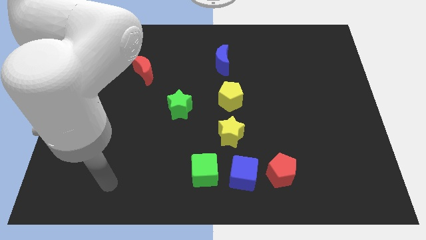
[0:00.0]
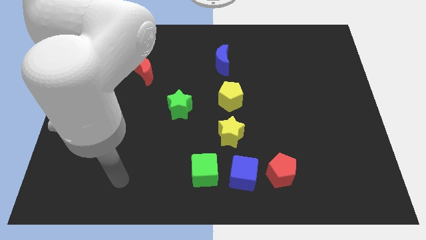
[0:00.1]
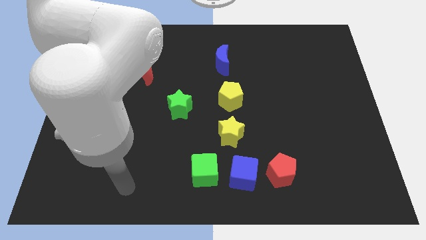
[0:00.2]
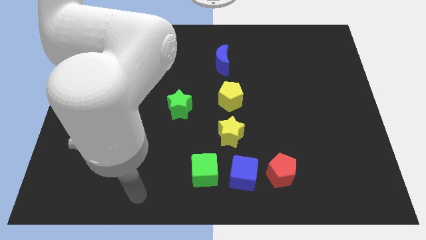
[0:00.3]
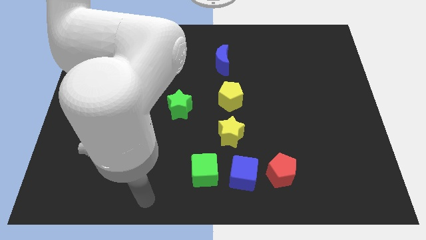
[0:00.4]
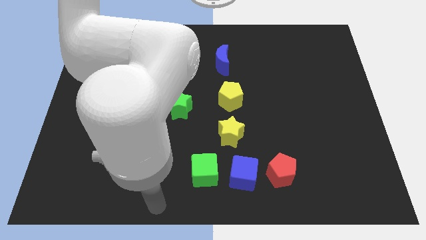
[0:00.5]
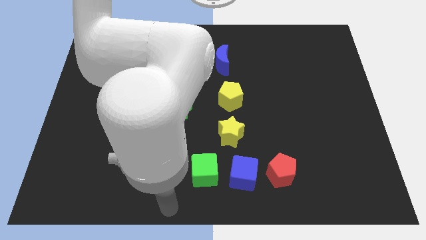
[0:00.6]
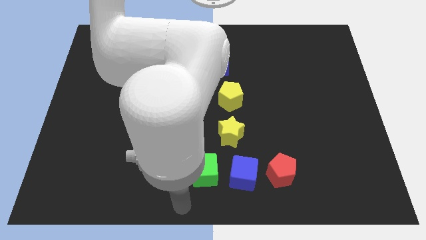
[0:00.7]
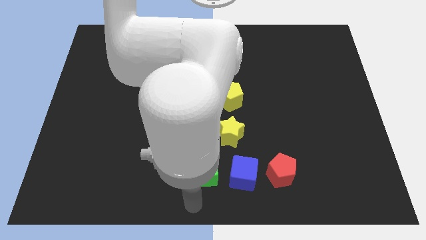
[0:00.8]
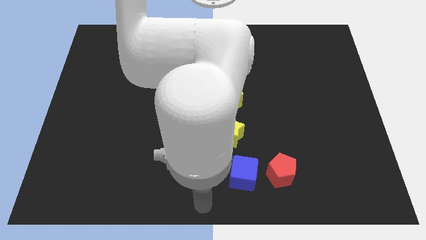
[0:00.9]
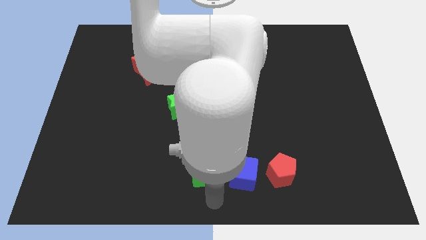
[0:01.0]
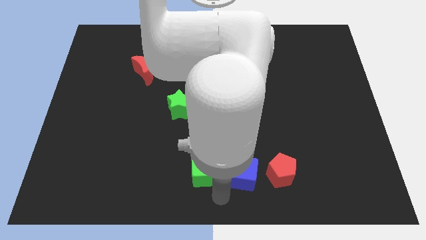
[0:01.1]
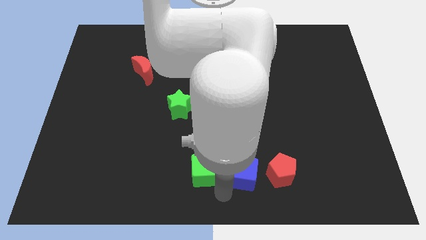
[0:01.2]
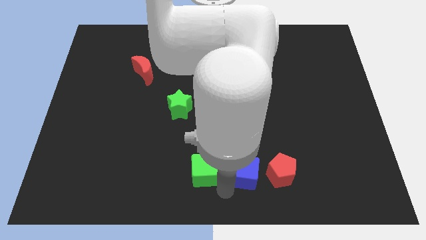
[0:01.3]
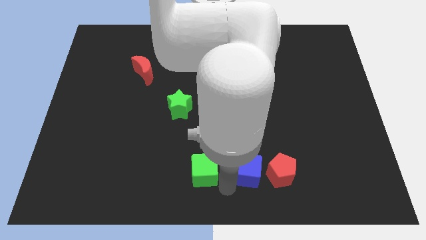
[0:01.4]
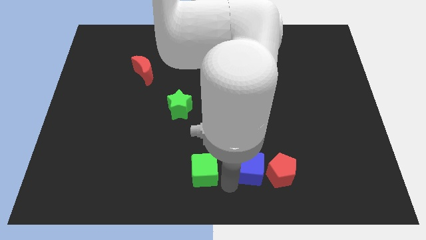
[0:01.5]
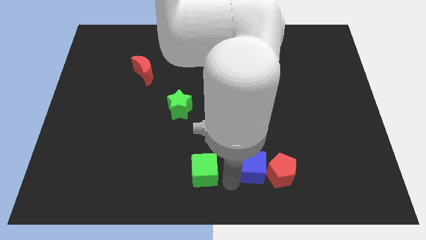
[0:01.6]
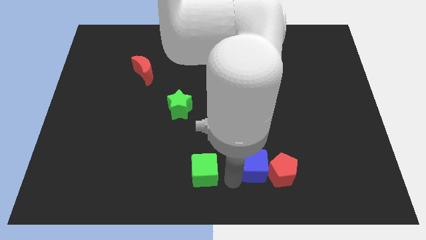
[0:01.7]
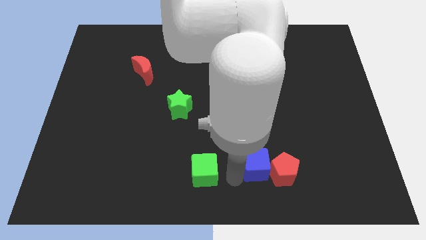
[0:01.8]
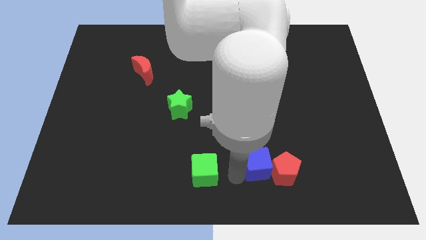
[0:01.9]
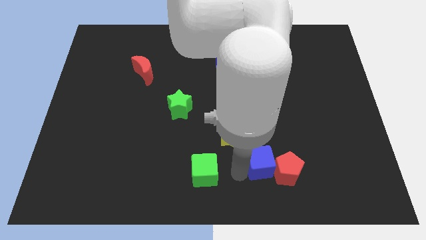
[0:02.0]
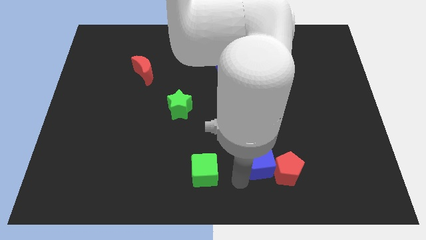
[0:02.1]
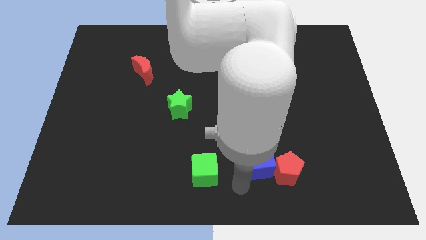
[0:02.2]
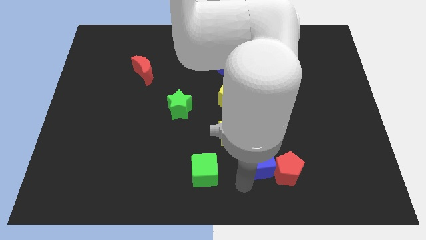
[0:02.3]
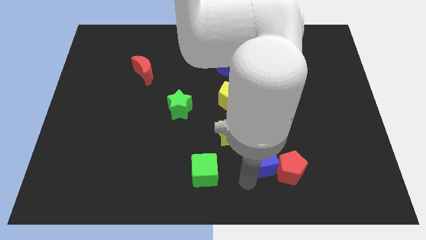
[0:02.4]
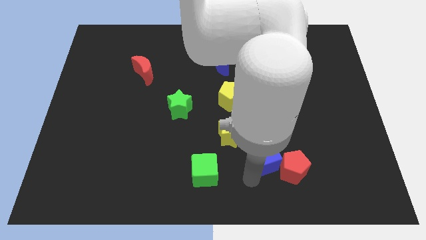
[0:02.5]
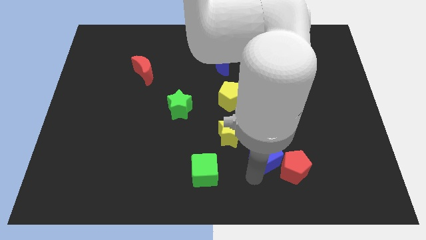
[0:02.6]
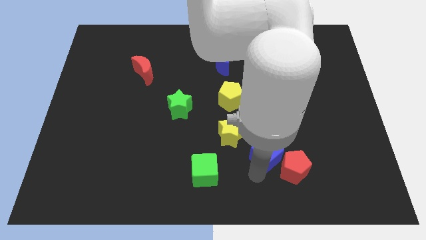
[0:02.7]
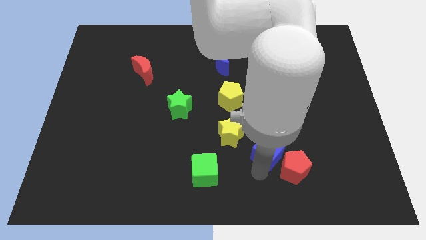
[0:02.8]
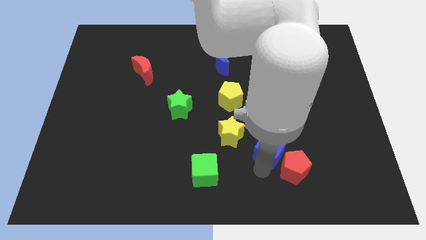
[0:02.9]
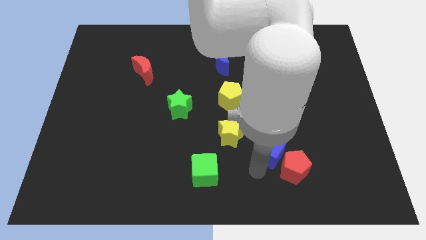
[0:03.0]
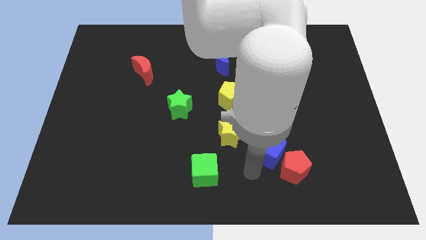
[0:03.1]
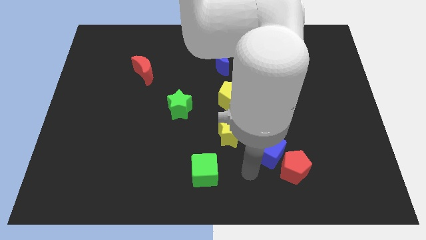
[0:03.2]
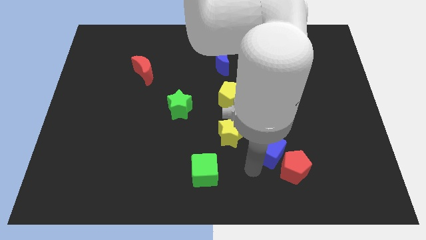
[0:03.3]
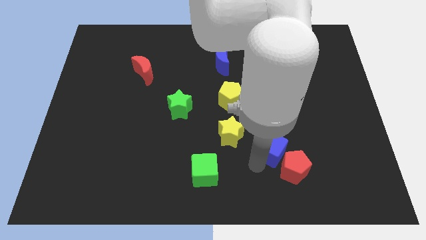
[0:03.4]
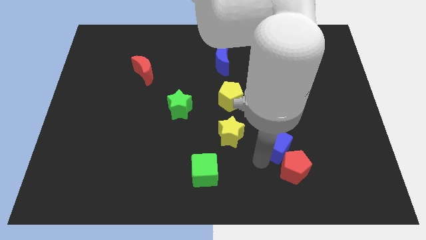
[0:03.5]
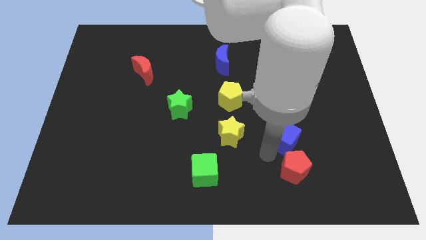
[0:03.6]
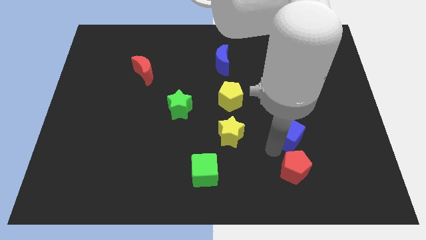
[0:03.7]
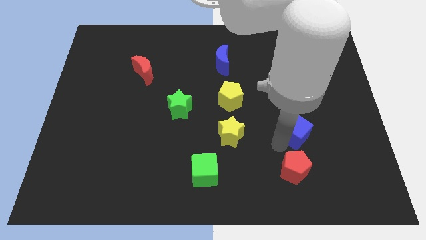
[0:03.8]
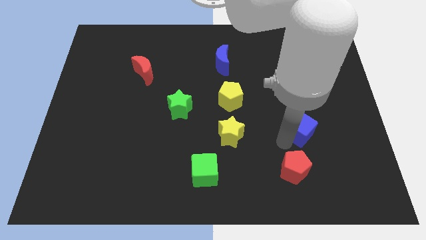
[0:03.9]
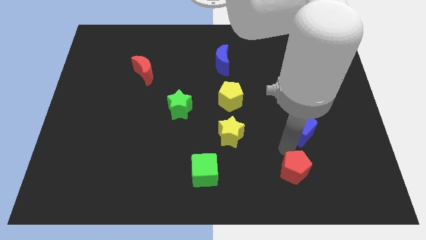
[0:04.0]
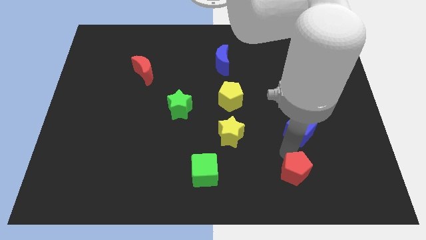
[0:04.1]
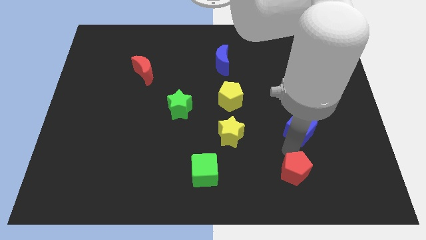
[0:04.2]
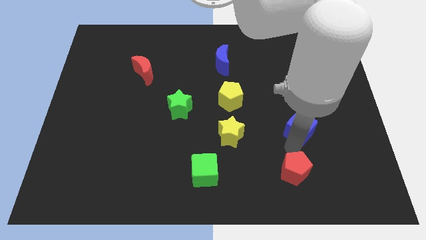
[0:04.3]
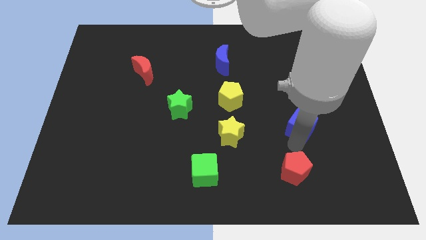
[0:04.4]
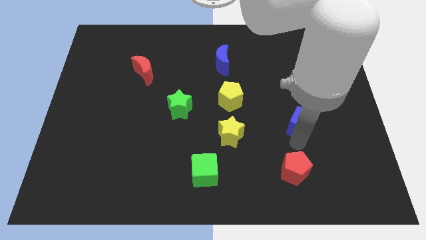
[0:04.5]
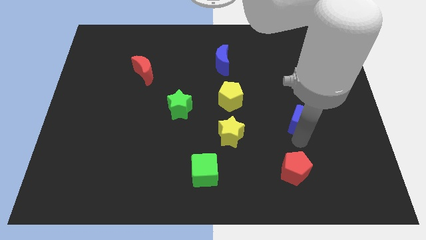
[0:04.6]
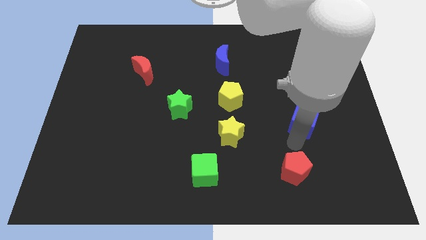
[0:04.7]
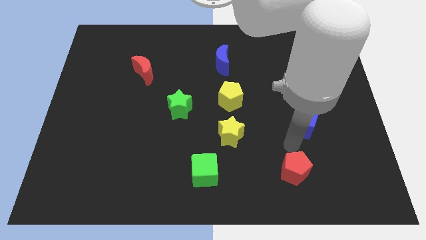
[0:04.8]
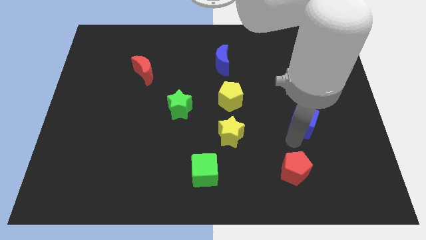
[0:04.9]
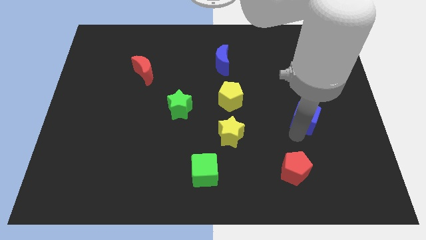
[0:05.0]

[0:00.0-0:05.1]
move the blue cube up and right diagonally

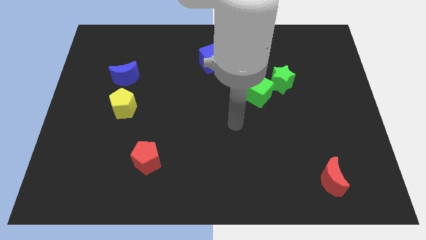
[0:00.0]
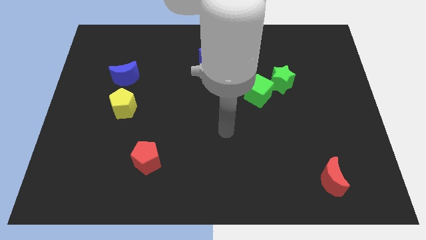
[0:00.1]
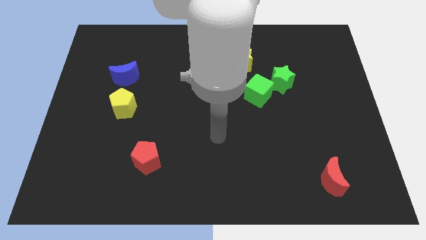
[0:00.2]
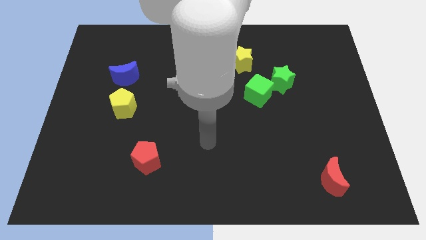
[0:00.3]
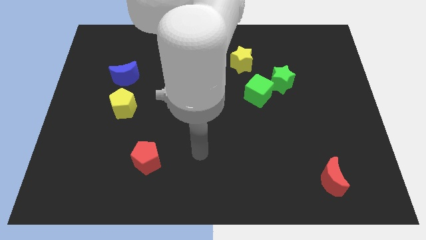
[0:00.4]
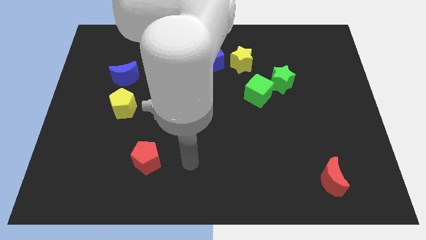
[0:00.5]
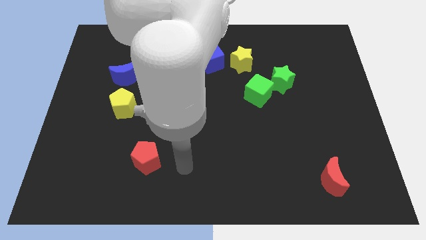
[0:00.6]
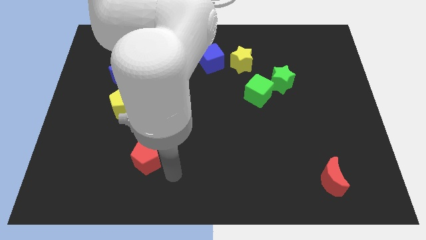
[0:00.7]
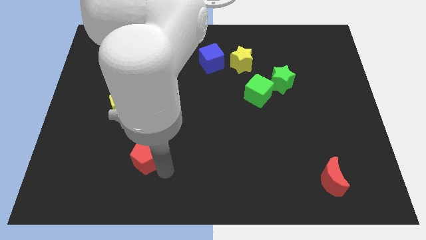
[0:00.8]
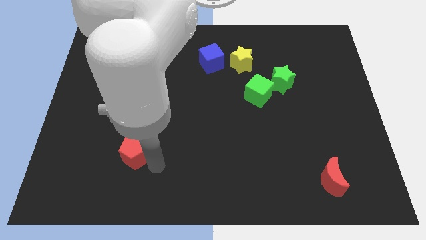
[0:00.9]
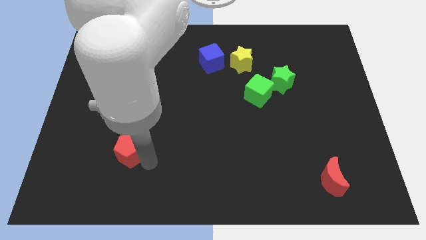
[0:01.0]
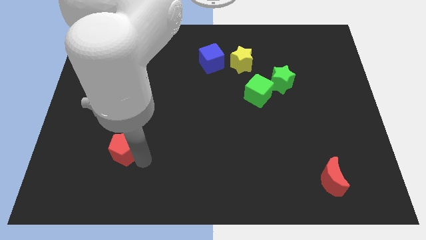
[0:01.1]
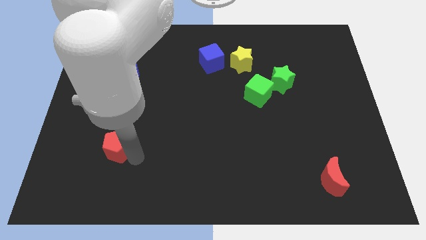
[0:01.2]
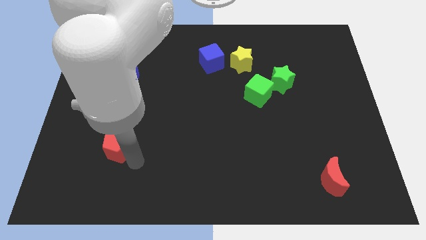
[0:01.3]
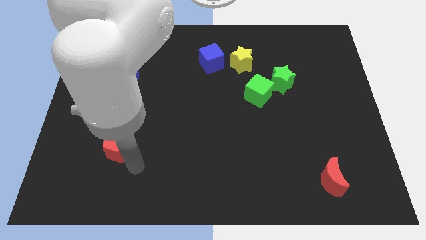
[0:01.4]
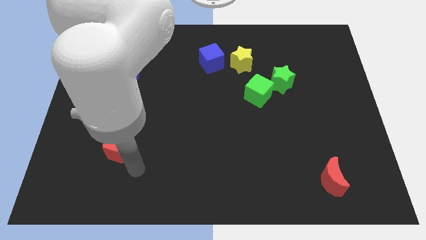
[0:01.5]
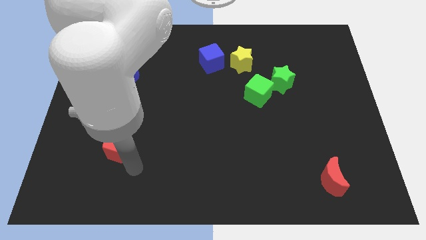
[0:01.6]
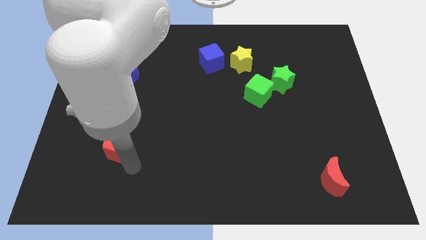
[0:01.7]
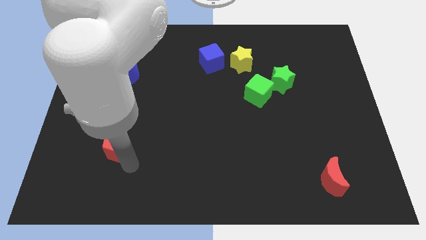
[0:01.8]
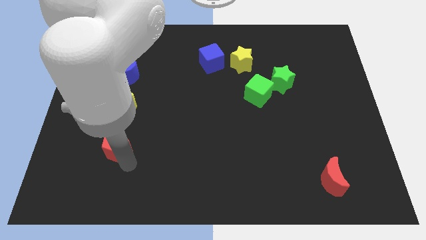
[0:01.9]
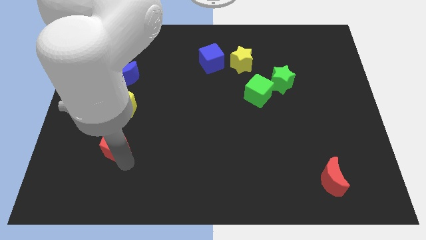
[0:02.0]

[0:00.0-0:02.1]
push the red pentagon up and then to the left a bit

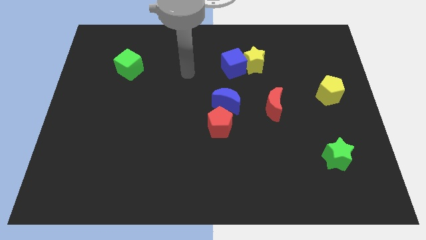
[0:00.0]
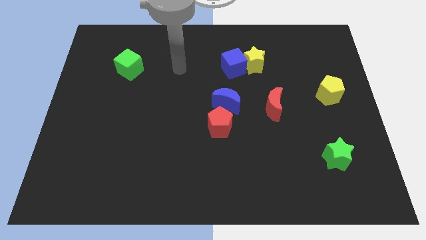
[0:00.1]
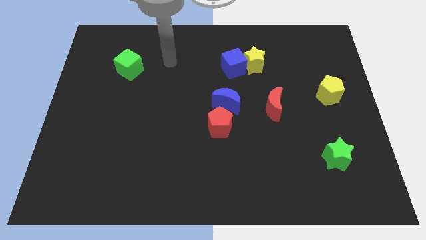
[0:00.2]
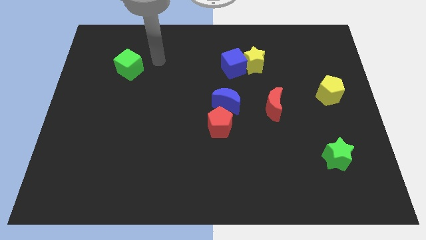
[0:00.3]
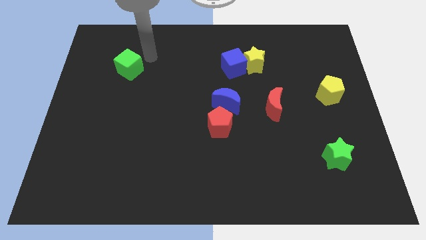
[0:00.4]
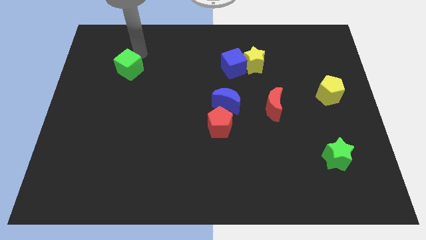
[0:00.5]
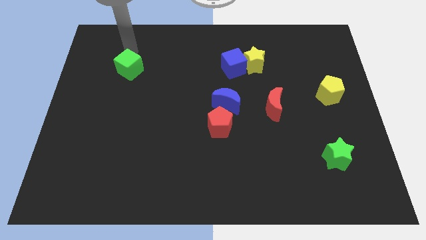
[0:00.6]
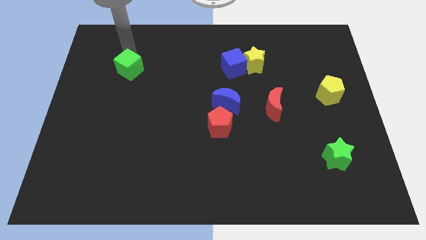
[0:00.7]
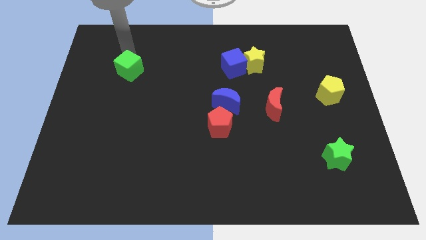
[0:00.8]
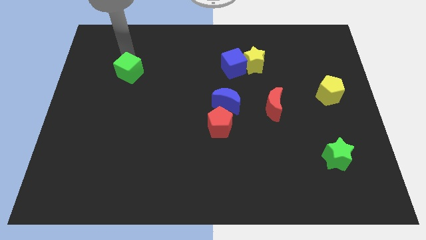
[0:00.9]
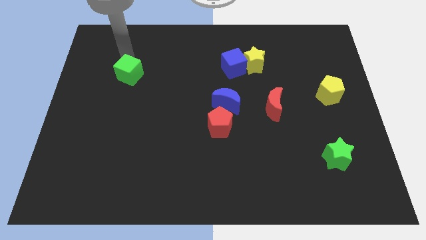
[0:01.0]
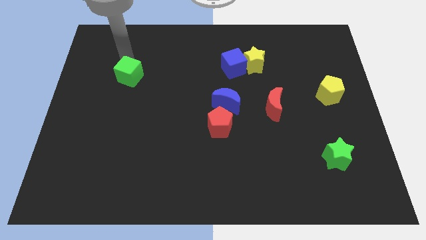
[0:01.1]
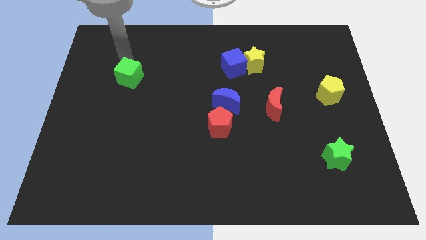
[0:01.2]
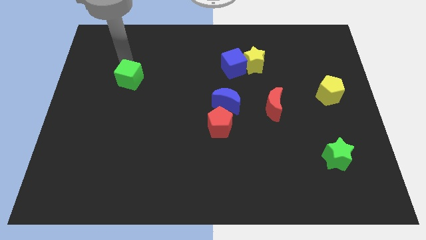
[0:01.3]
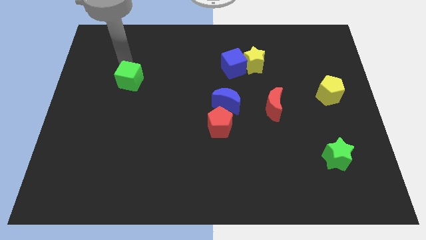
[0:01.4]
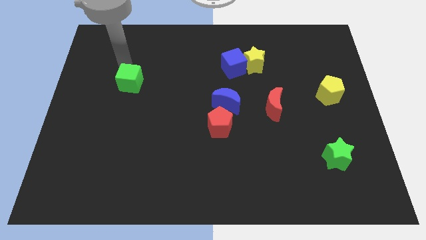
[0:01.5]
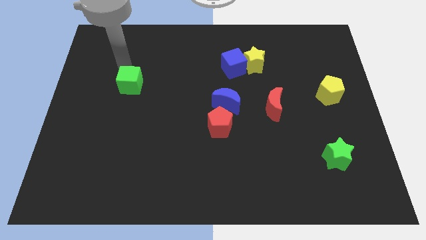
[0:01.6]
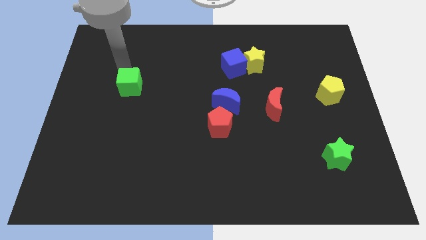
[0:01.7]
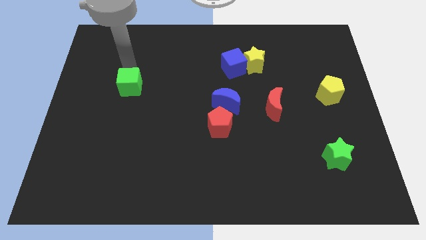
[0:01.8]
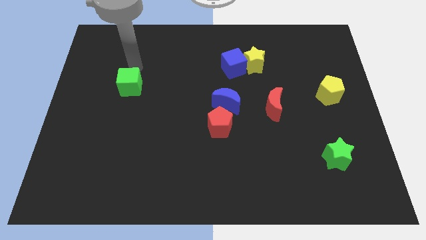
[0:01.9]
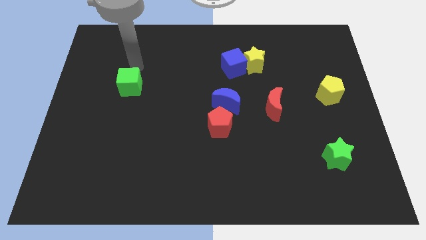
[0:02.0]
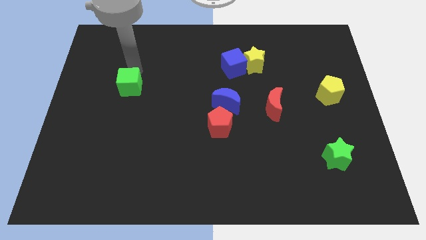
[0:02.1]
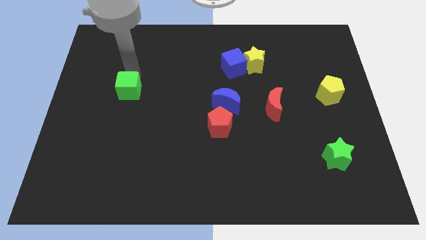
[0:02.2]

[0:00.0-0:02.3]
slightly move the green cube downwards
